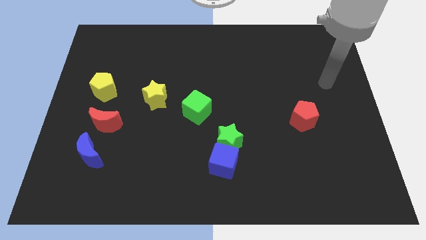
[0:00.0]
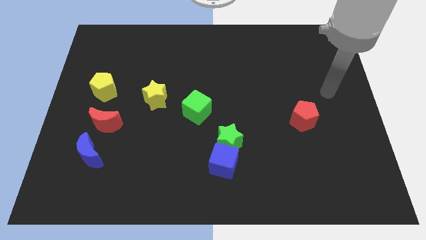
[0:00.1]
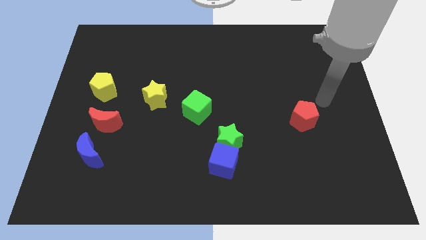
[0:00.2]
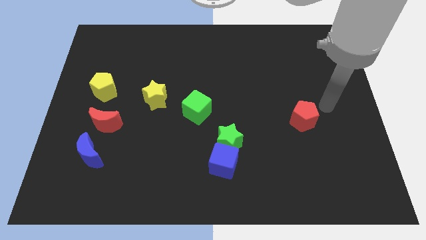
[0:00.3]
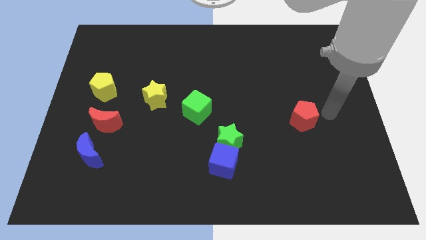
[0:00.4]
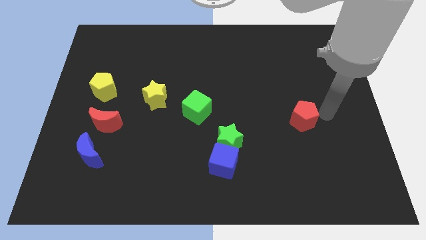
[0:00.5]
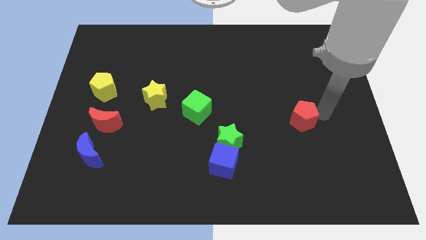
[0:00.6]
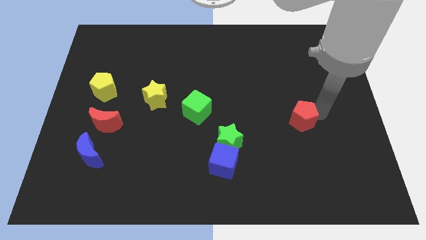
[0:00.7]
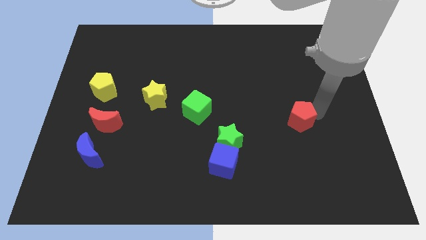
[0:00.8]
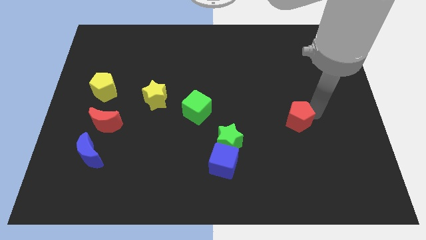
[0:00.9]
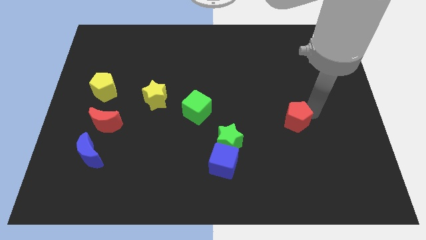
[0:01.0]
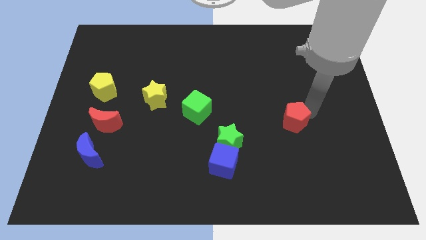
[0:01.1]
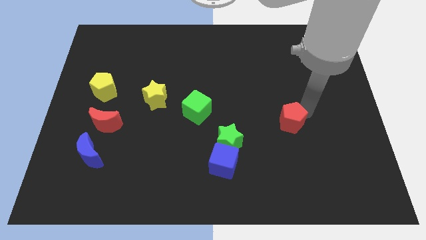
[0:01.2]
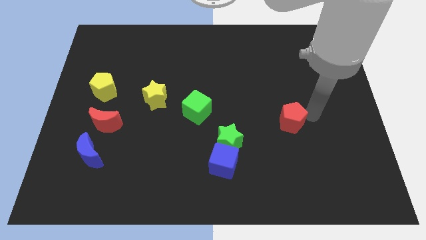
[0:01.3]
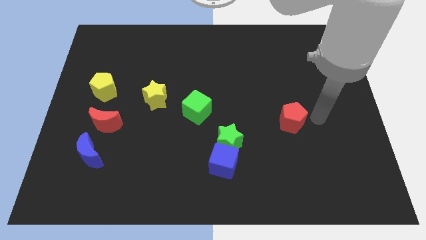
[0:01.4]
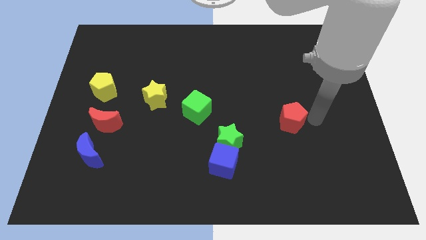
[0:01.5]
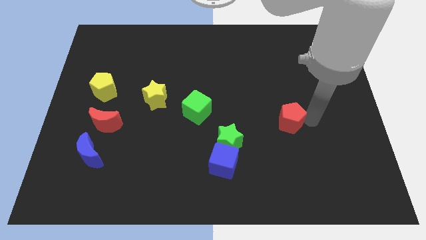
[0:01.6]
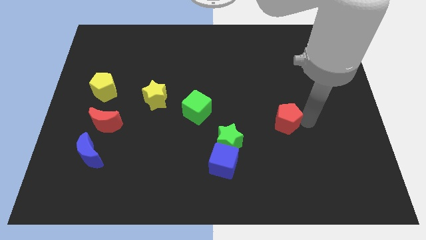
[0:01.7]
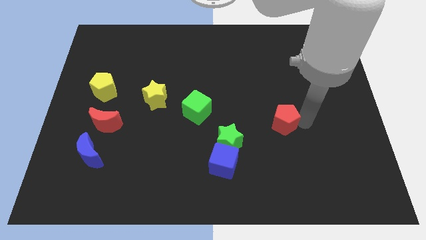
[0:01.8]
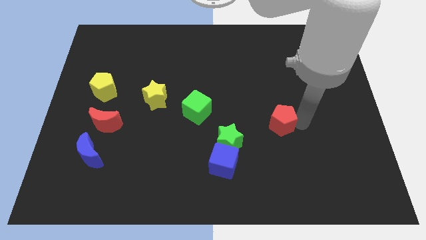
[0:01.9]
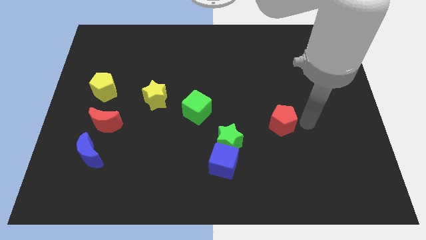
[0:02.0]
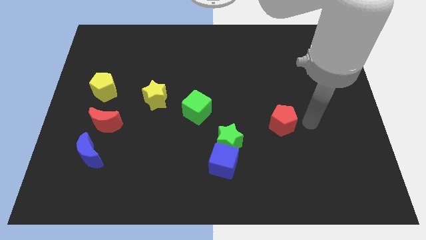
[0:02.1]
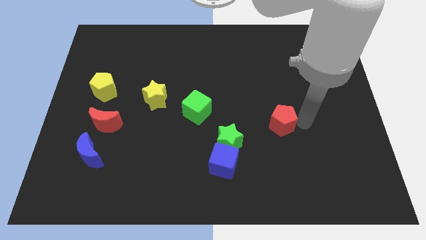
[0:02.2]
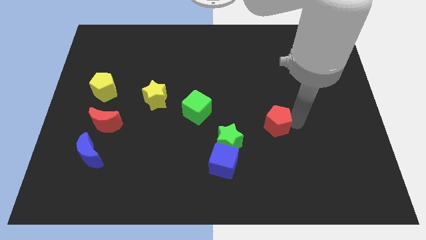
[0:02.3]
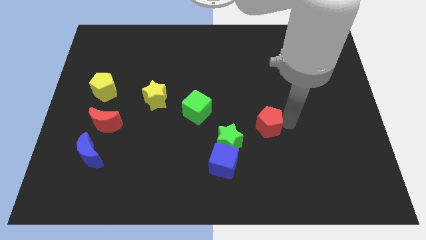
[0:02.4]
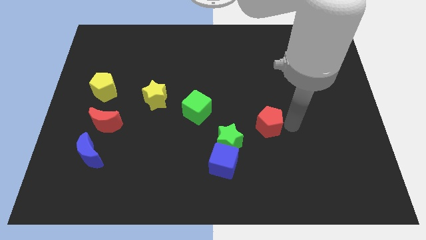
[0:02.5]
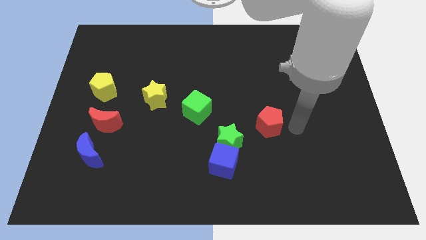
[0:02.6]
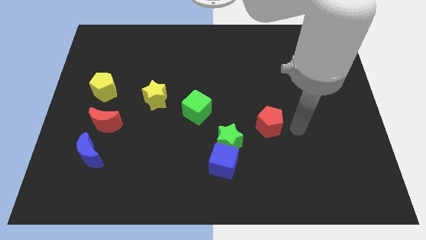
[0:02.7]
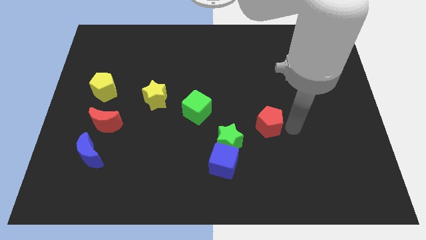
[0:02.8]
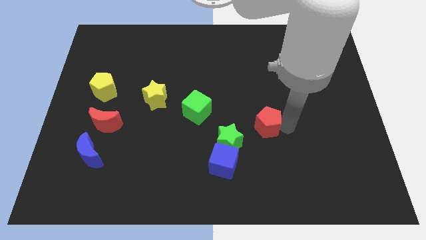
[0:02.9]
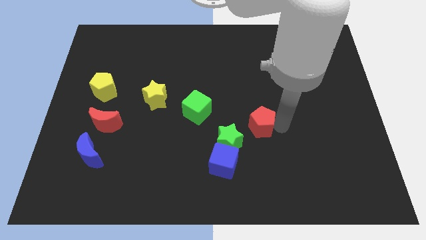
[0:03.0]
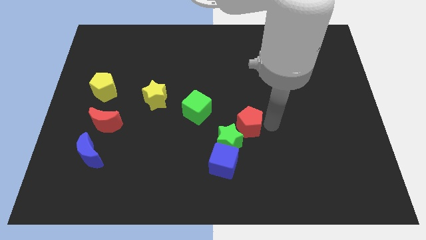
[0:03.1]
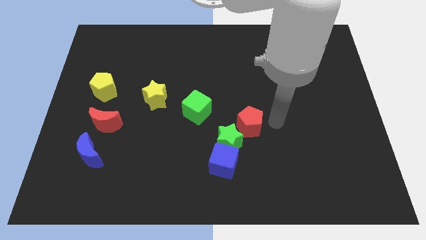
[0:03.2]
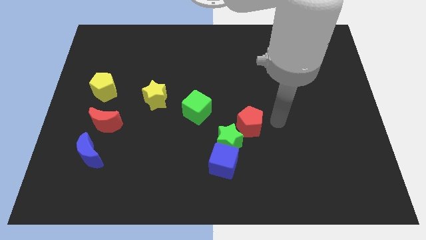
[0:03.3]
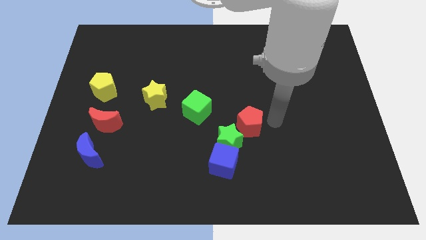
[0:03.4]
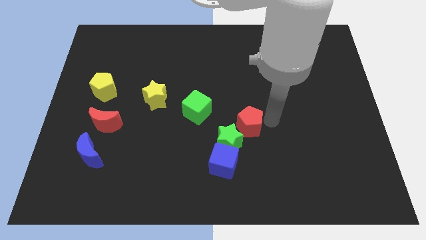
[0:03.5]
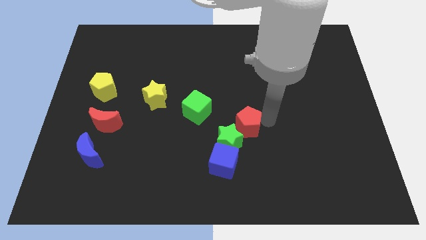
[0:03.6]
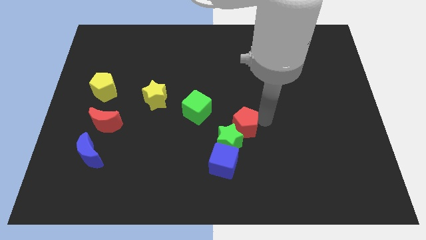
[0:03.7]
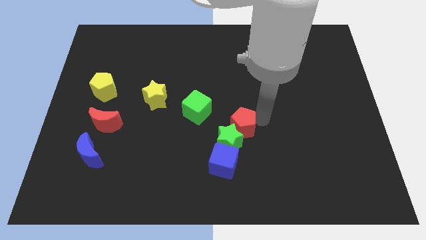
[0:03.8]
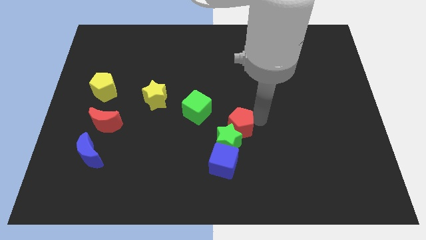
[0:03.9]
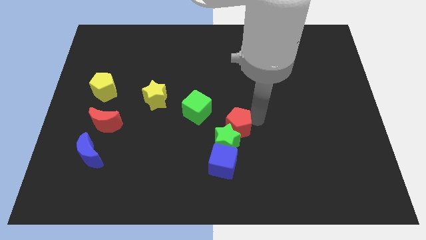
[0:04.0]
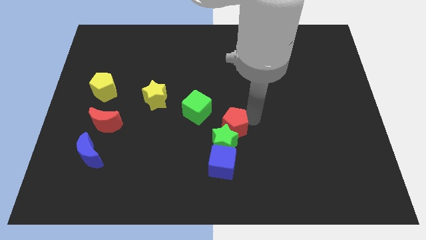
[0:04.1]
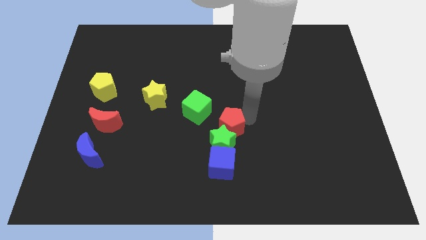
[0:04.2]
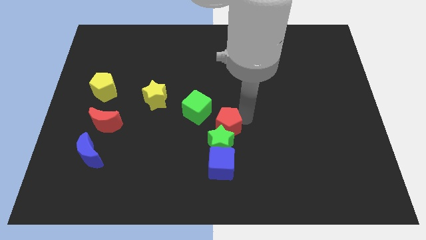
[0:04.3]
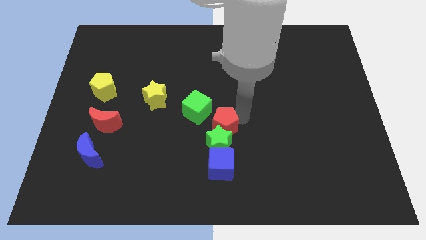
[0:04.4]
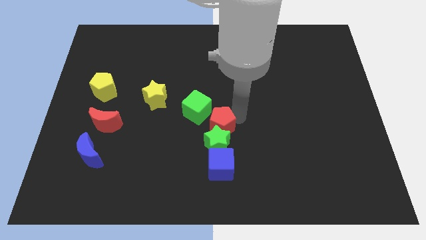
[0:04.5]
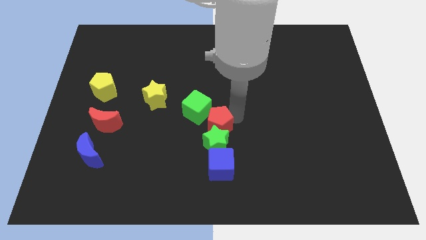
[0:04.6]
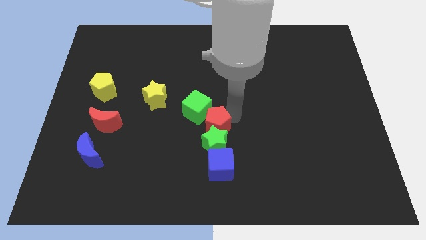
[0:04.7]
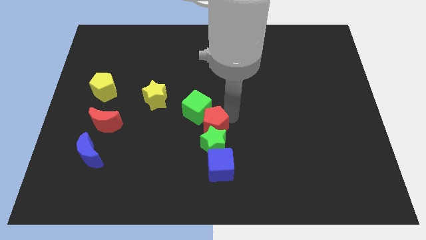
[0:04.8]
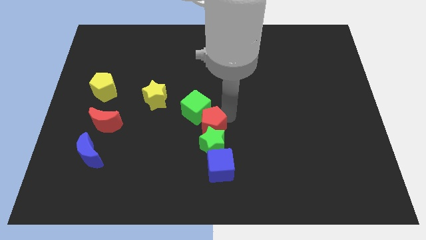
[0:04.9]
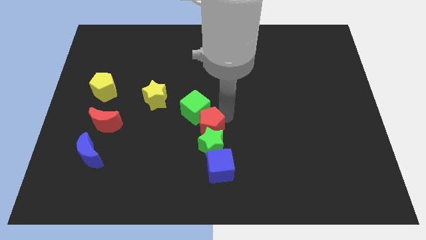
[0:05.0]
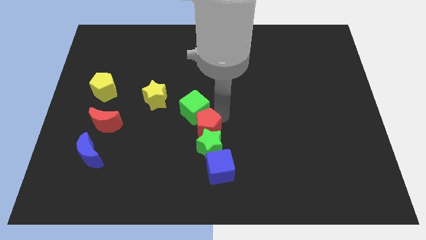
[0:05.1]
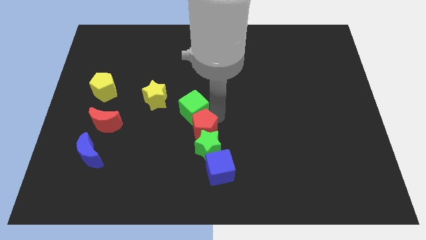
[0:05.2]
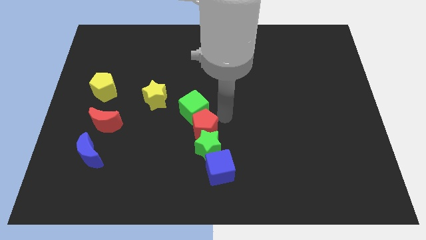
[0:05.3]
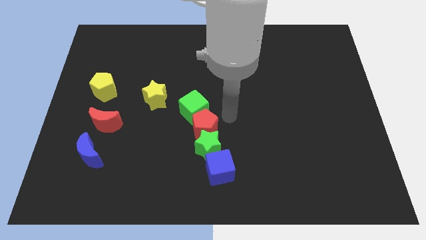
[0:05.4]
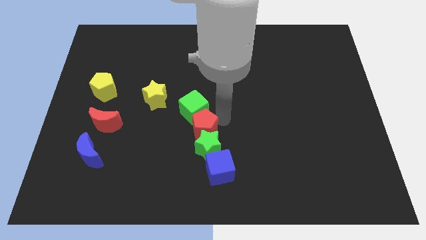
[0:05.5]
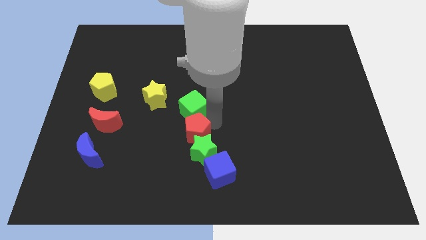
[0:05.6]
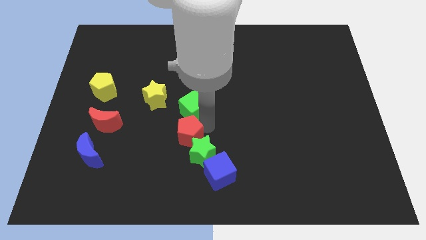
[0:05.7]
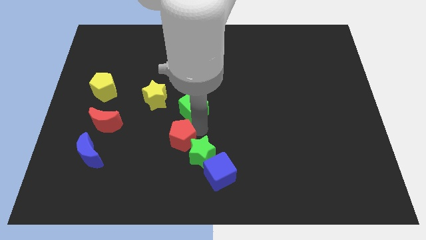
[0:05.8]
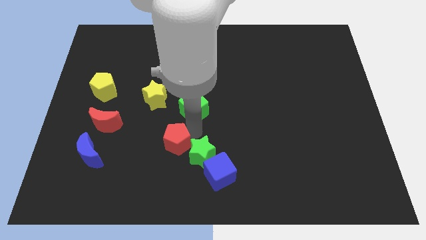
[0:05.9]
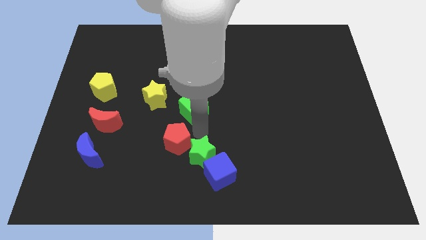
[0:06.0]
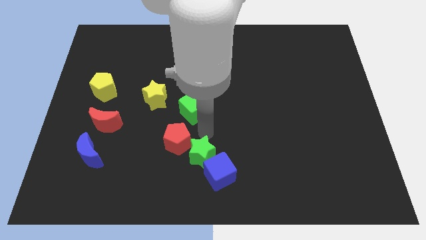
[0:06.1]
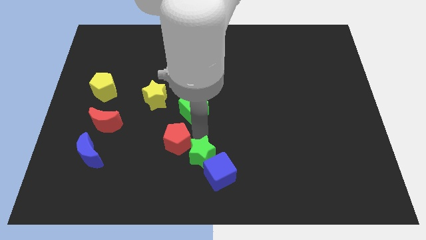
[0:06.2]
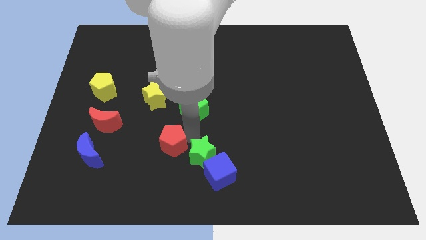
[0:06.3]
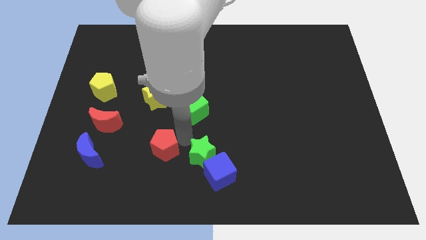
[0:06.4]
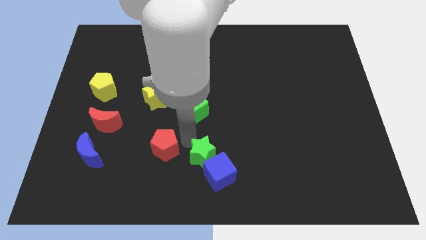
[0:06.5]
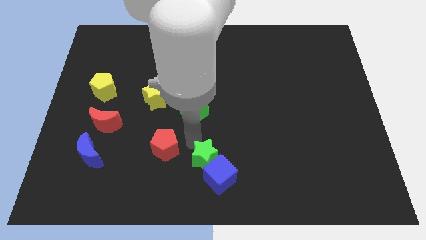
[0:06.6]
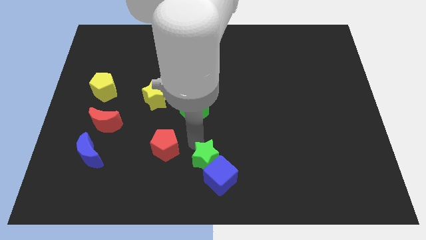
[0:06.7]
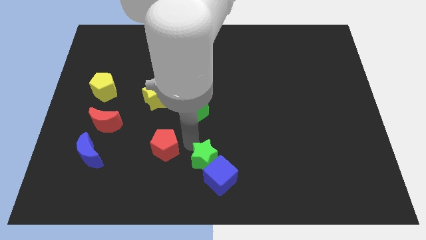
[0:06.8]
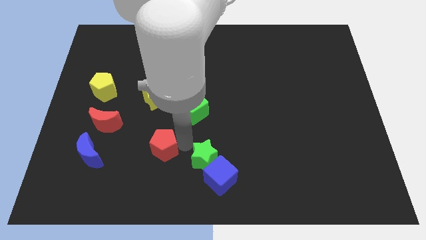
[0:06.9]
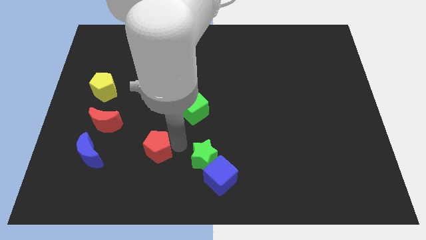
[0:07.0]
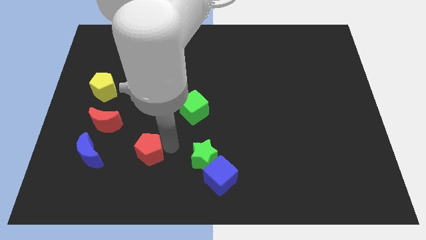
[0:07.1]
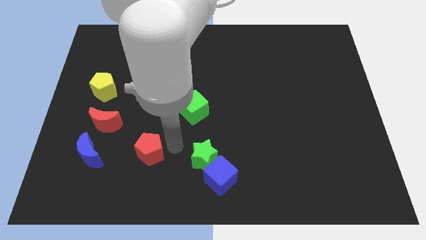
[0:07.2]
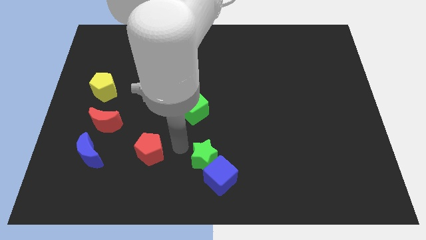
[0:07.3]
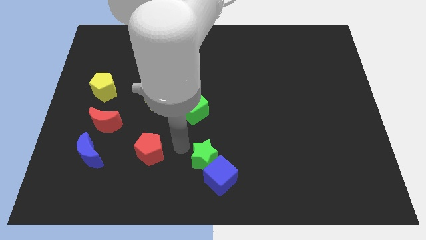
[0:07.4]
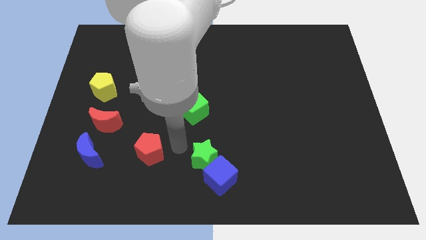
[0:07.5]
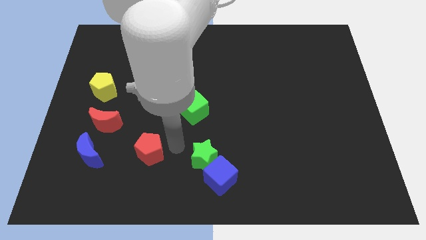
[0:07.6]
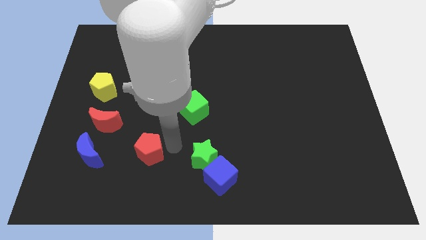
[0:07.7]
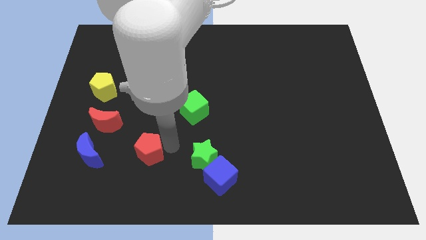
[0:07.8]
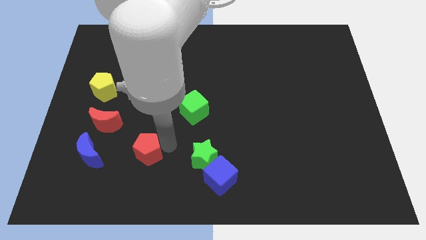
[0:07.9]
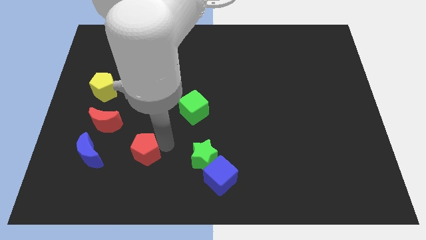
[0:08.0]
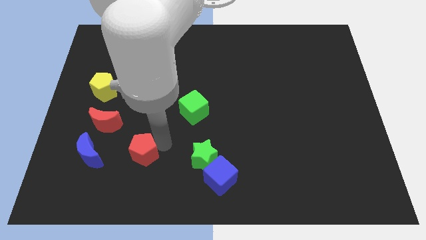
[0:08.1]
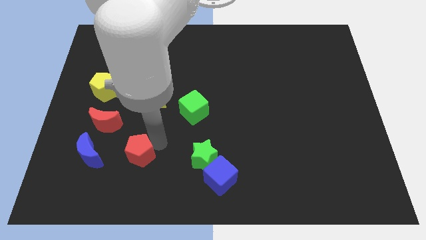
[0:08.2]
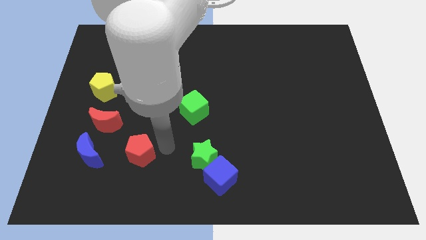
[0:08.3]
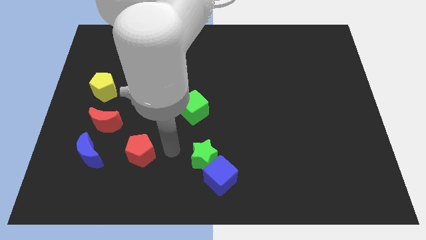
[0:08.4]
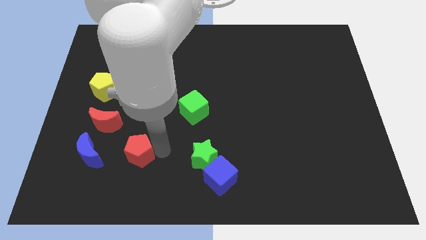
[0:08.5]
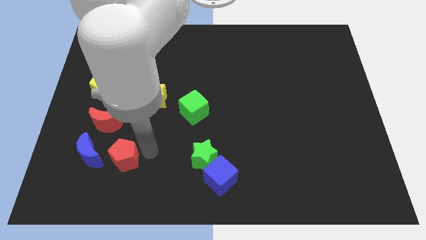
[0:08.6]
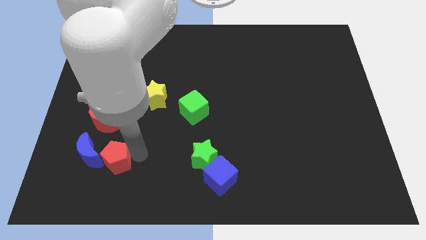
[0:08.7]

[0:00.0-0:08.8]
put the red pentagon towards the blue moon
